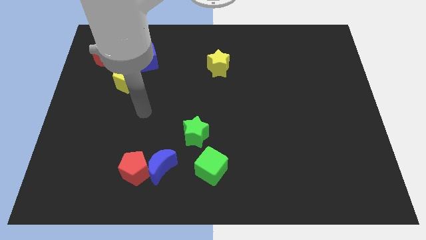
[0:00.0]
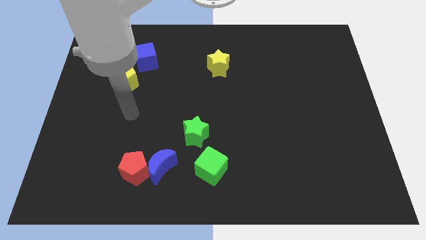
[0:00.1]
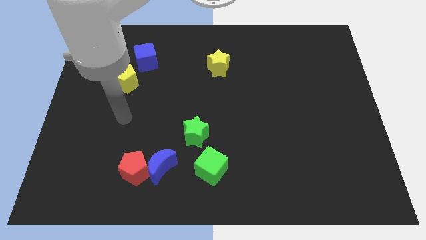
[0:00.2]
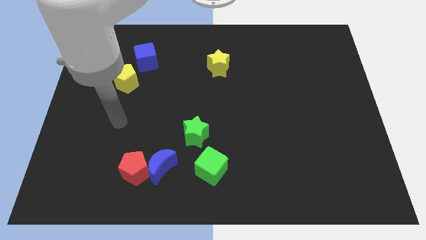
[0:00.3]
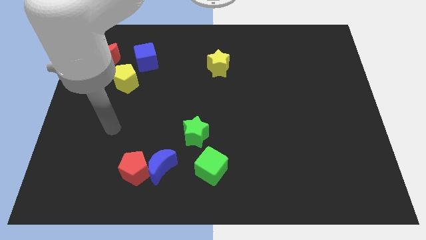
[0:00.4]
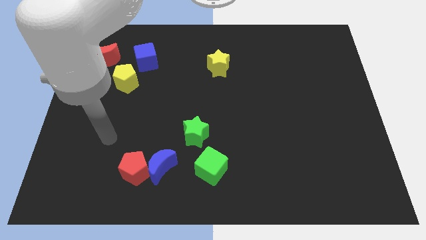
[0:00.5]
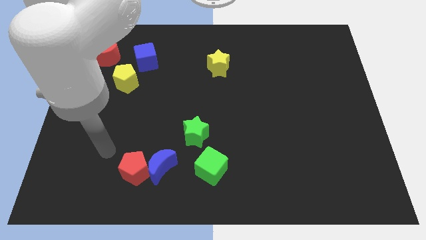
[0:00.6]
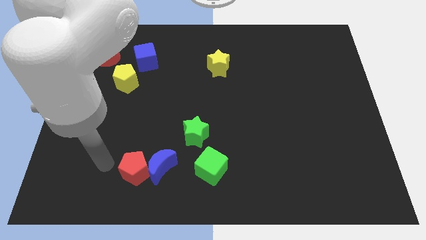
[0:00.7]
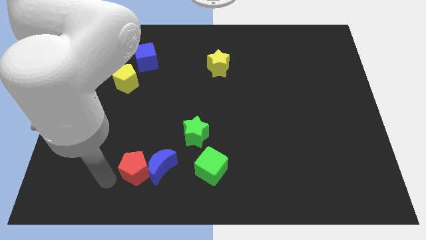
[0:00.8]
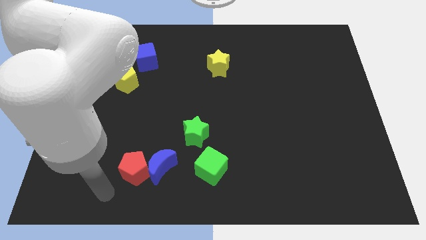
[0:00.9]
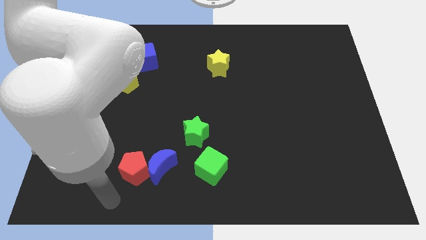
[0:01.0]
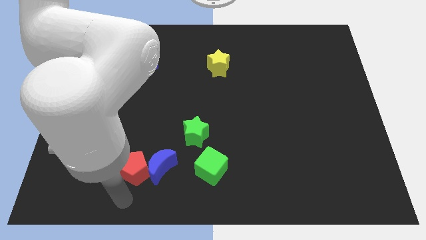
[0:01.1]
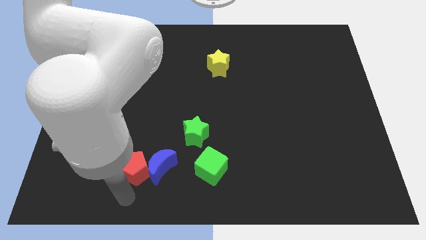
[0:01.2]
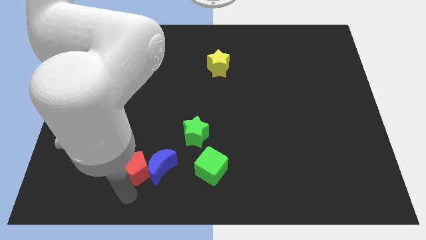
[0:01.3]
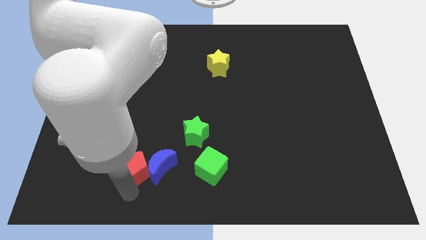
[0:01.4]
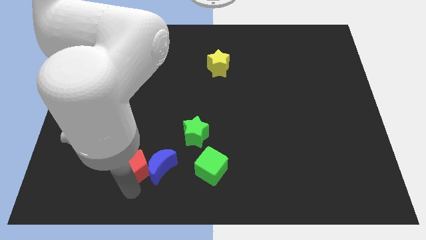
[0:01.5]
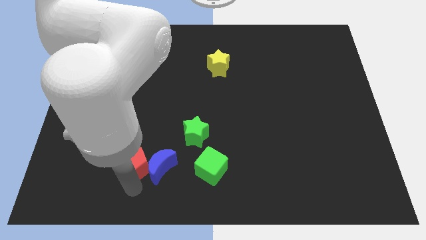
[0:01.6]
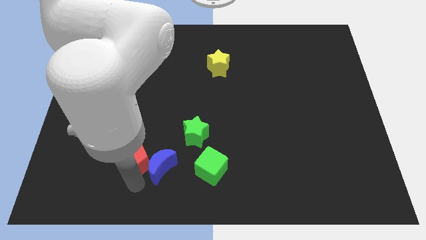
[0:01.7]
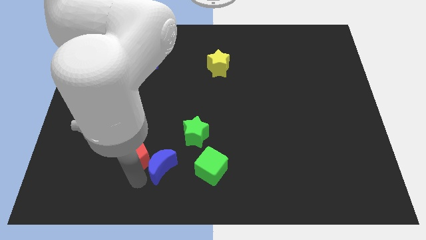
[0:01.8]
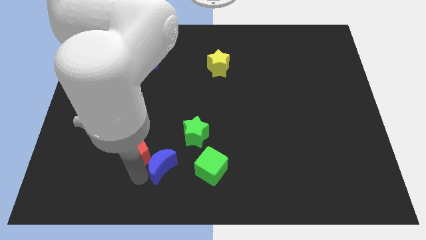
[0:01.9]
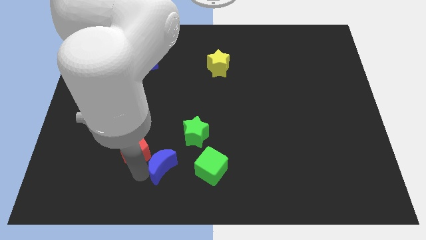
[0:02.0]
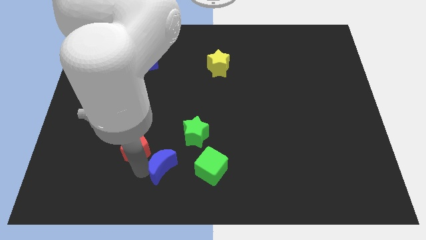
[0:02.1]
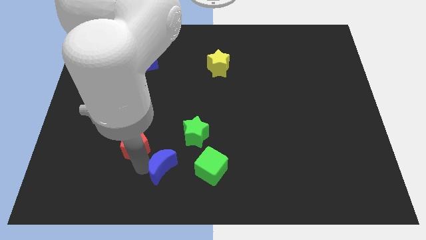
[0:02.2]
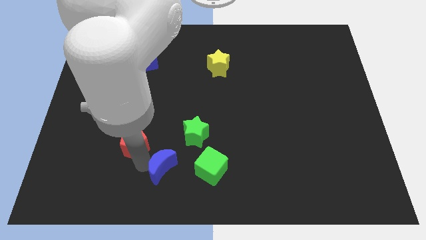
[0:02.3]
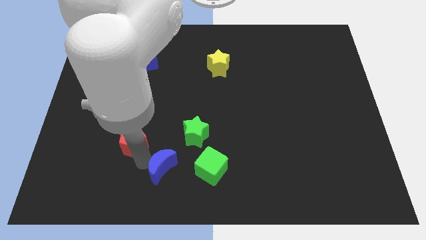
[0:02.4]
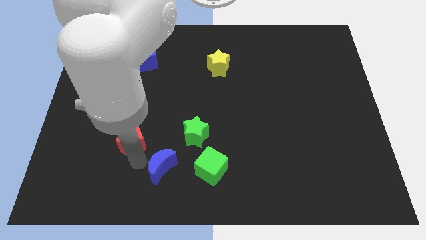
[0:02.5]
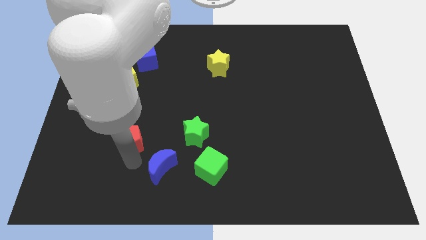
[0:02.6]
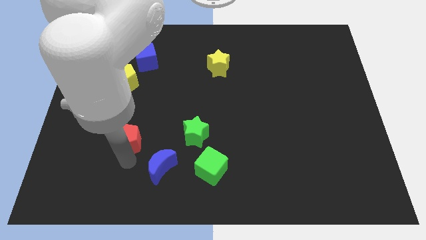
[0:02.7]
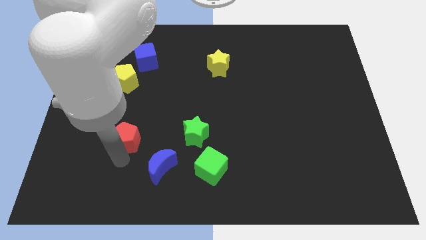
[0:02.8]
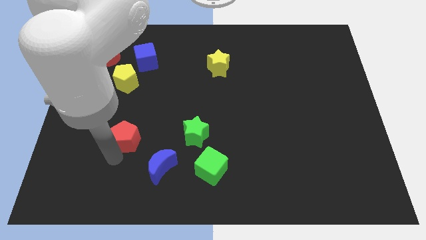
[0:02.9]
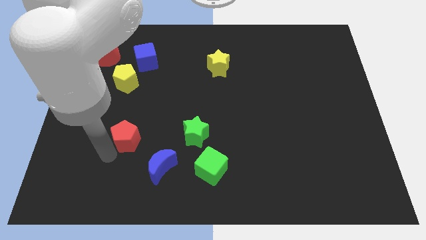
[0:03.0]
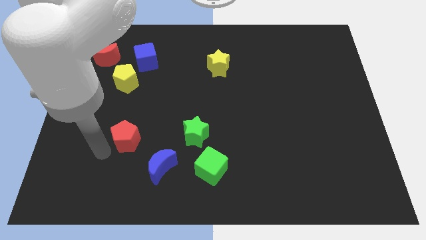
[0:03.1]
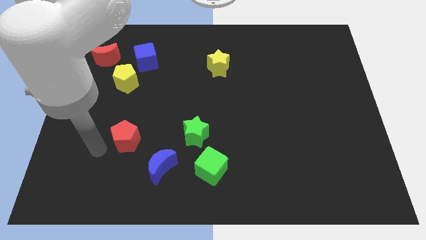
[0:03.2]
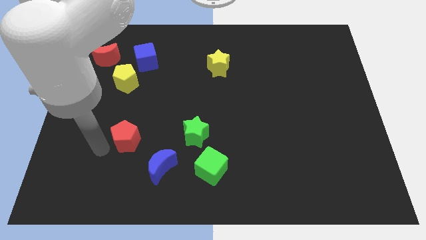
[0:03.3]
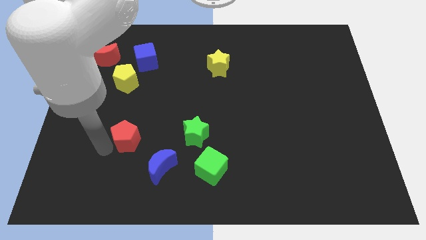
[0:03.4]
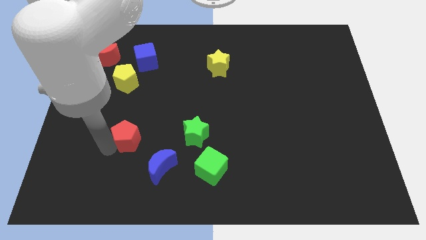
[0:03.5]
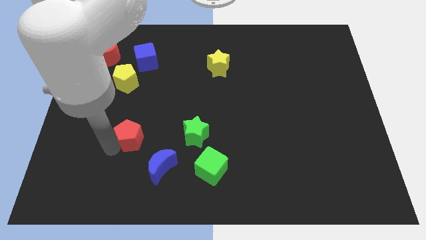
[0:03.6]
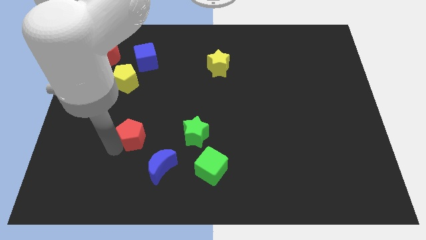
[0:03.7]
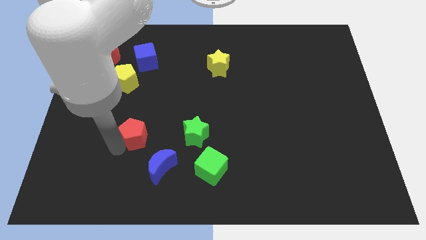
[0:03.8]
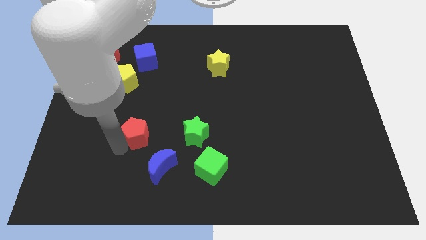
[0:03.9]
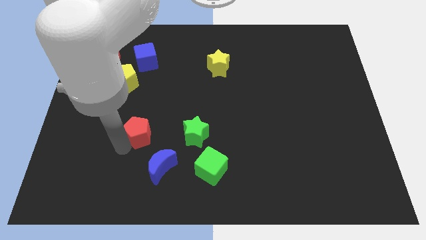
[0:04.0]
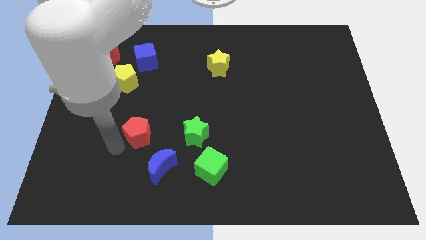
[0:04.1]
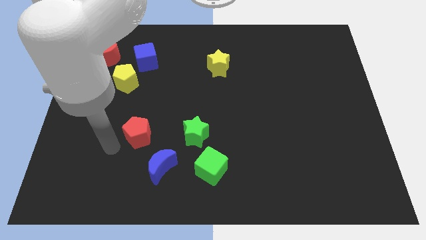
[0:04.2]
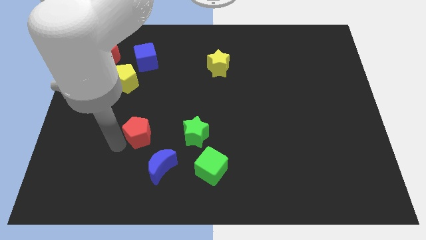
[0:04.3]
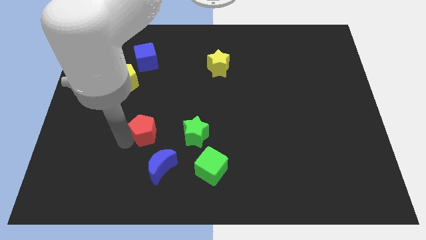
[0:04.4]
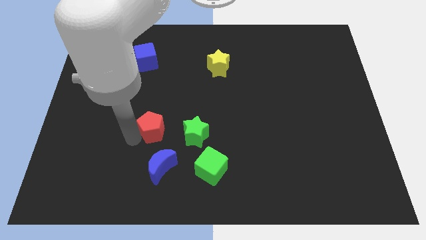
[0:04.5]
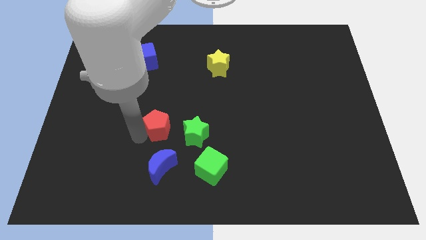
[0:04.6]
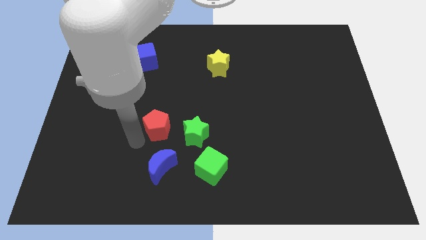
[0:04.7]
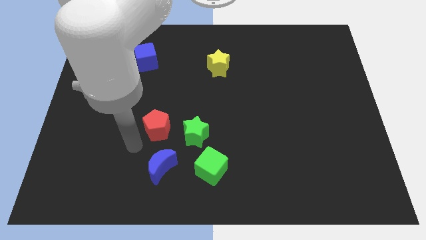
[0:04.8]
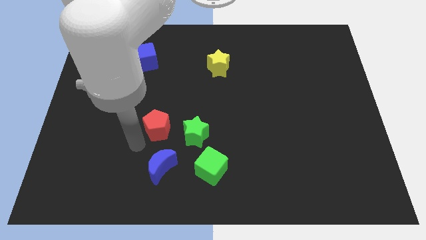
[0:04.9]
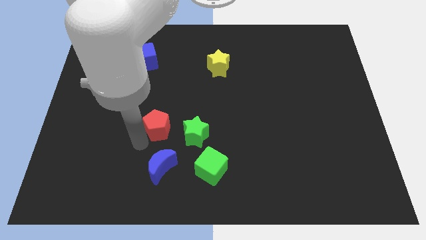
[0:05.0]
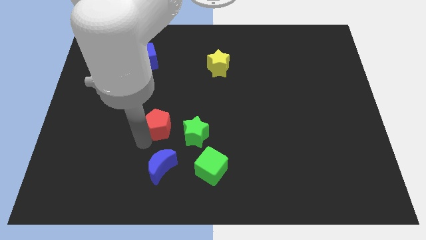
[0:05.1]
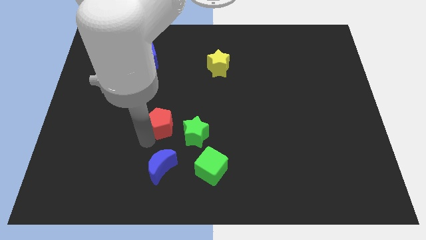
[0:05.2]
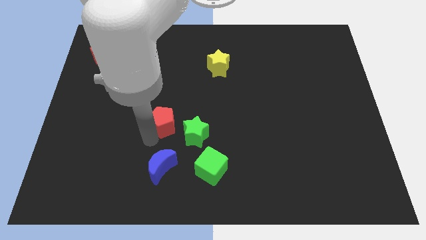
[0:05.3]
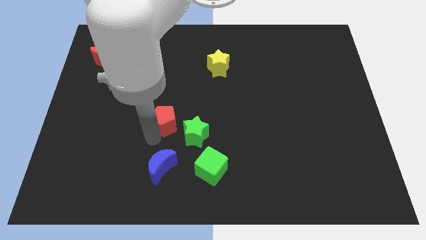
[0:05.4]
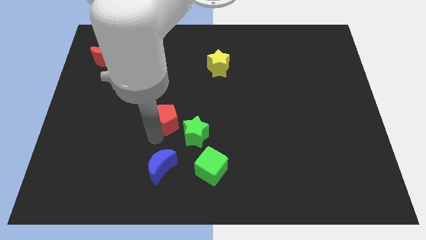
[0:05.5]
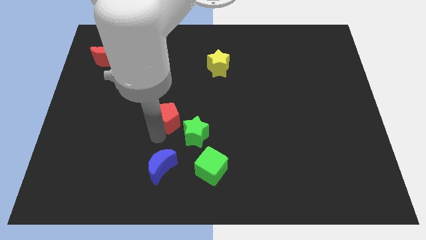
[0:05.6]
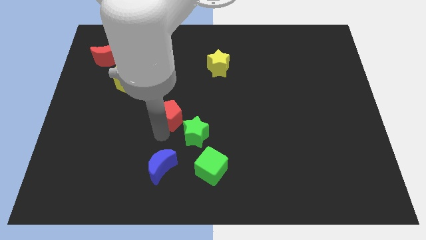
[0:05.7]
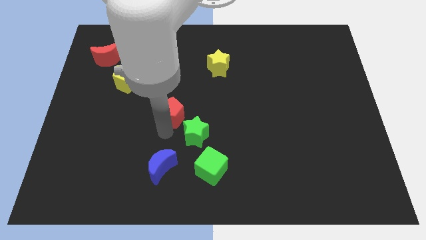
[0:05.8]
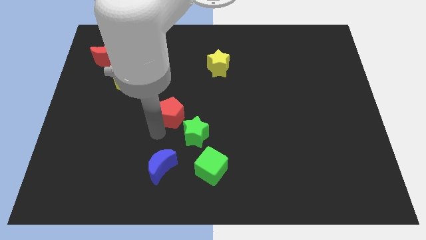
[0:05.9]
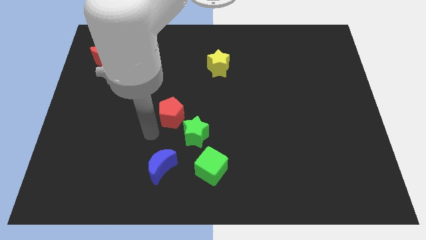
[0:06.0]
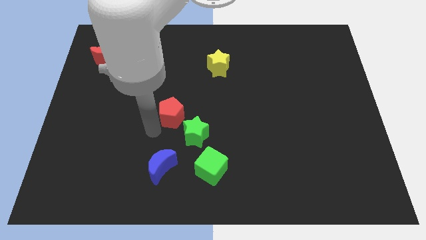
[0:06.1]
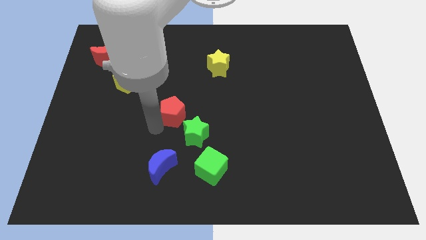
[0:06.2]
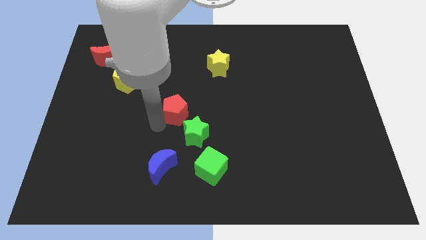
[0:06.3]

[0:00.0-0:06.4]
push the red pentagon to the top side of the green star

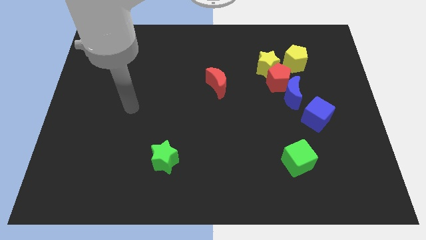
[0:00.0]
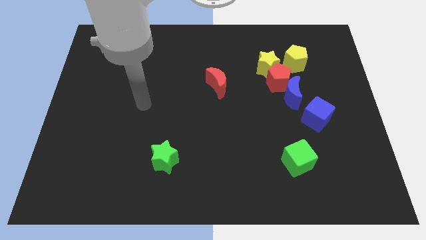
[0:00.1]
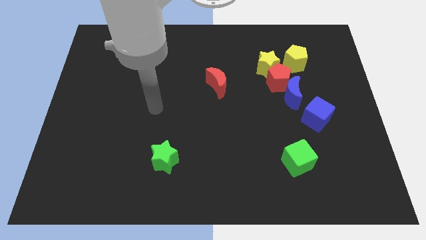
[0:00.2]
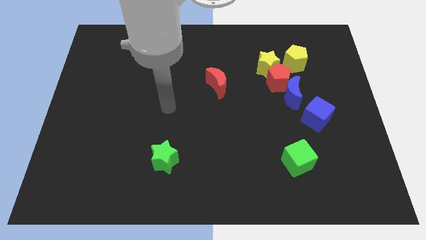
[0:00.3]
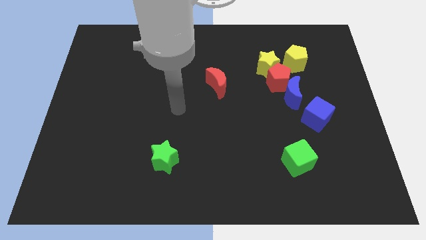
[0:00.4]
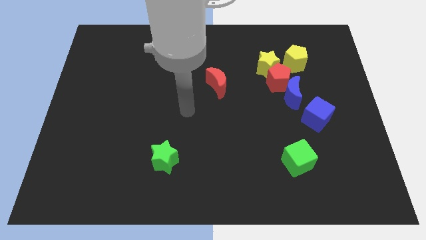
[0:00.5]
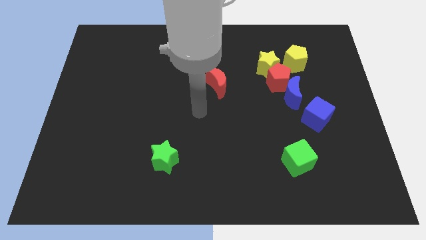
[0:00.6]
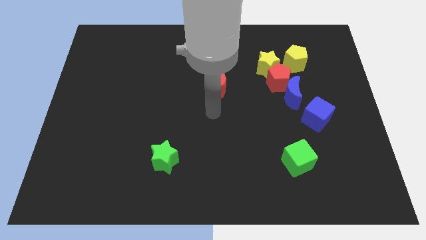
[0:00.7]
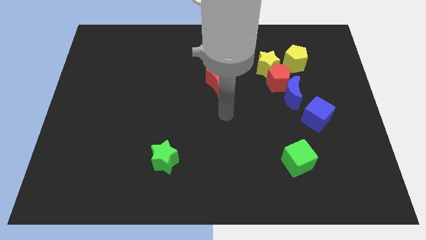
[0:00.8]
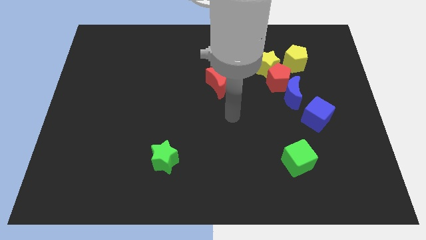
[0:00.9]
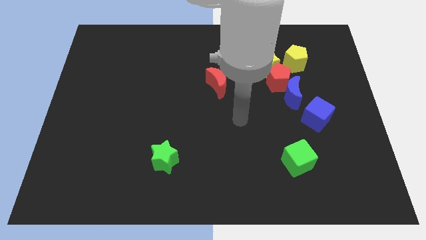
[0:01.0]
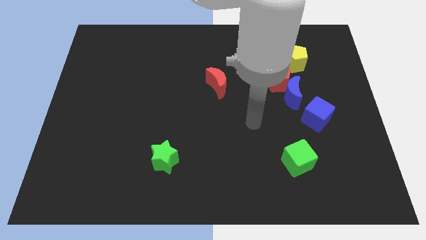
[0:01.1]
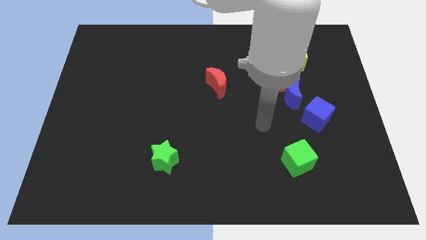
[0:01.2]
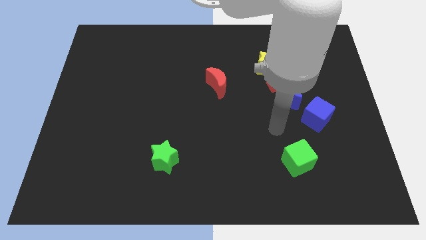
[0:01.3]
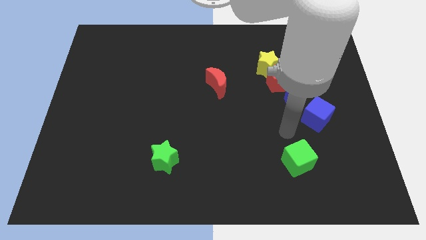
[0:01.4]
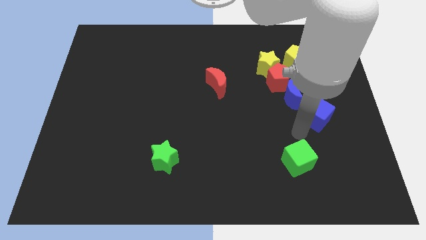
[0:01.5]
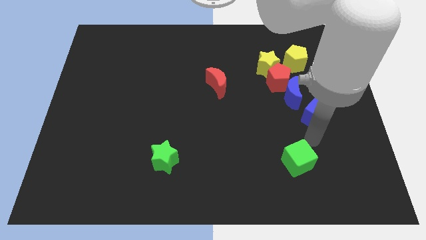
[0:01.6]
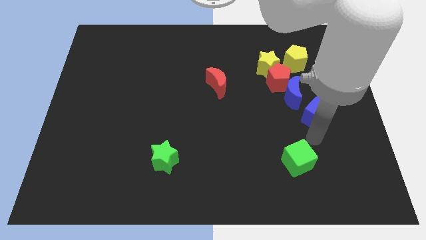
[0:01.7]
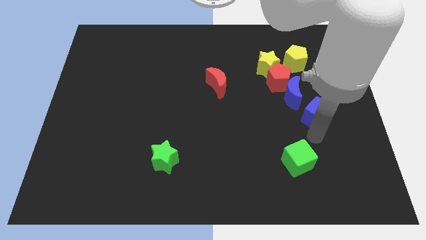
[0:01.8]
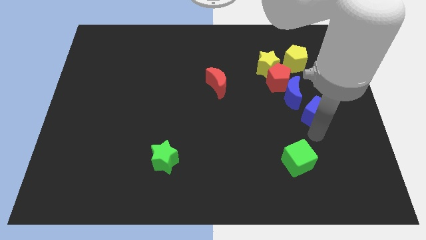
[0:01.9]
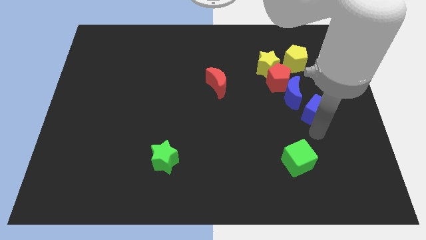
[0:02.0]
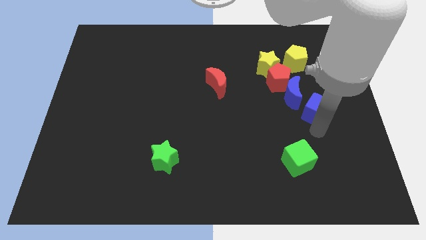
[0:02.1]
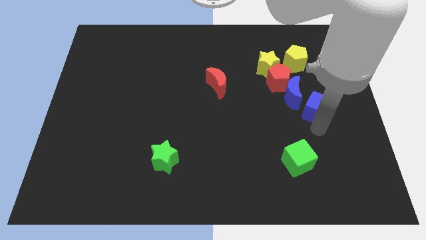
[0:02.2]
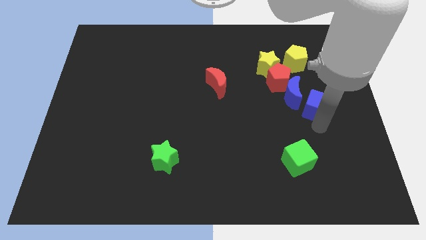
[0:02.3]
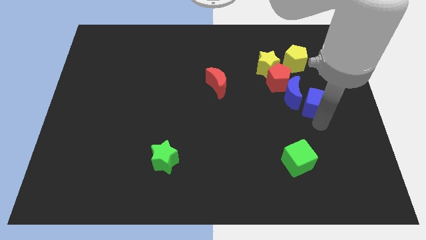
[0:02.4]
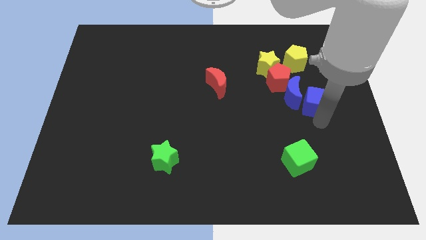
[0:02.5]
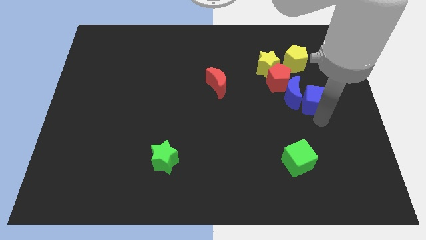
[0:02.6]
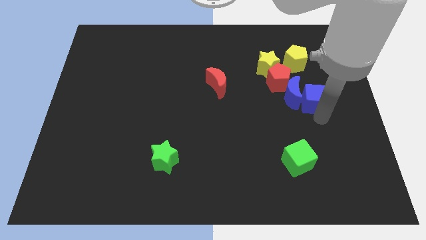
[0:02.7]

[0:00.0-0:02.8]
slide the blue cube to the top right side of the blue moon
